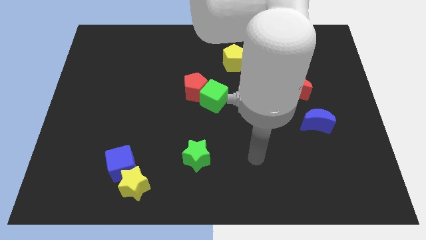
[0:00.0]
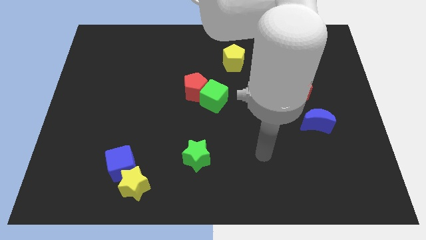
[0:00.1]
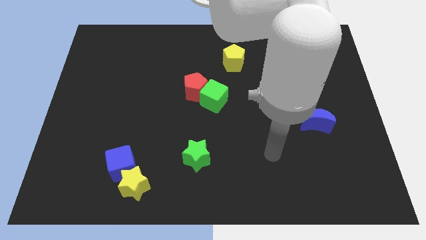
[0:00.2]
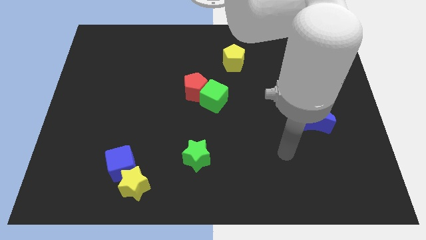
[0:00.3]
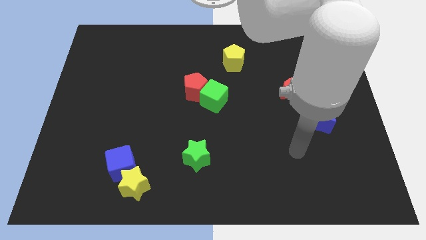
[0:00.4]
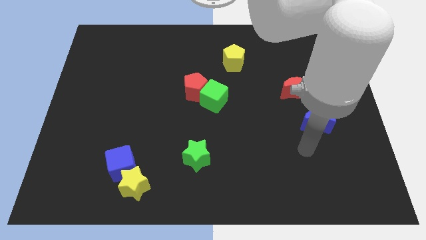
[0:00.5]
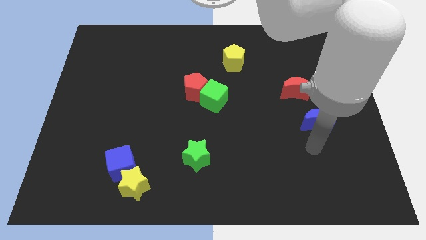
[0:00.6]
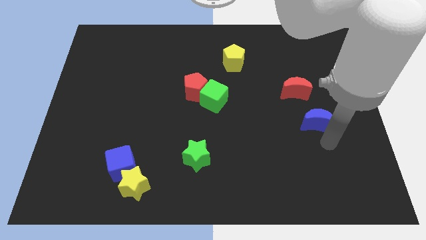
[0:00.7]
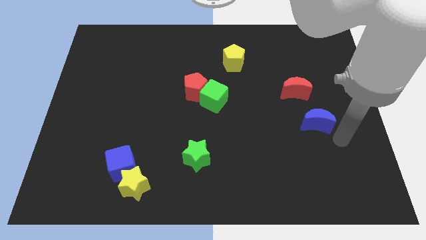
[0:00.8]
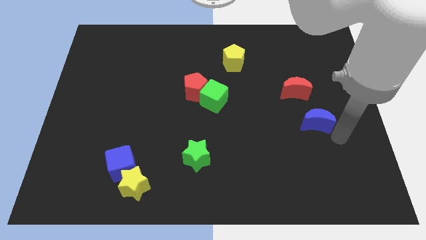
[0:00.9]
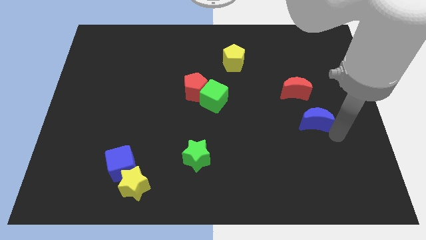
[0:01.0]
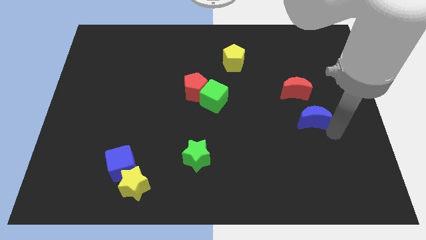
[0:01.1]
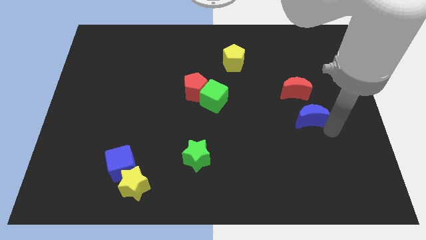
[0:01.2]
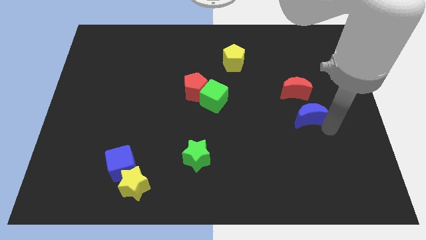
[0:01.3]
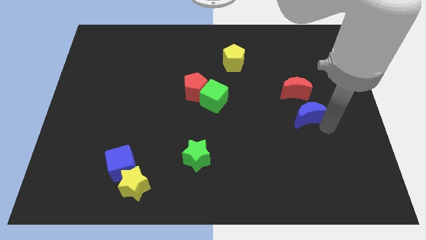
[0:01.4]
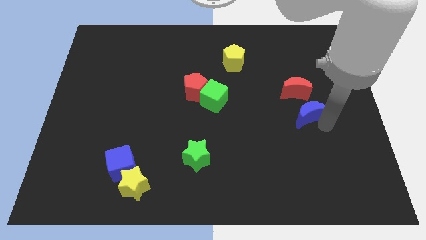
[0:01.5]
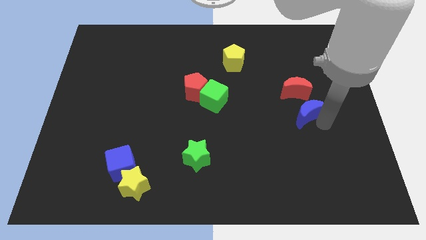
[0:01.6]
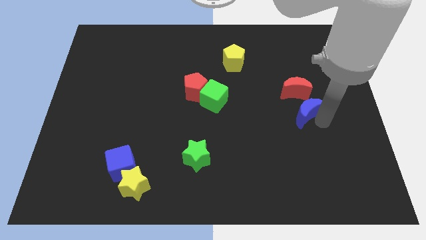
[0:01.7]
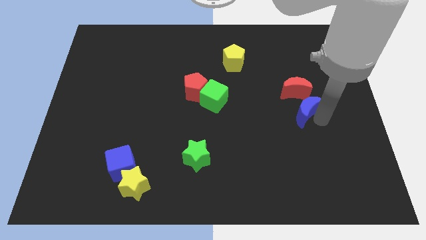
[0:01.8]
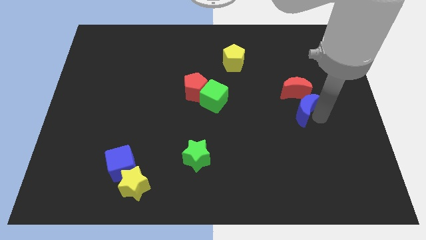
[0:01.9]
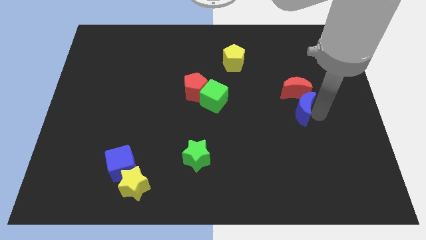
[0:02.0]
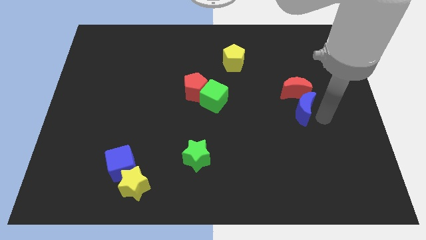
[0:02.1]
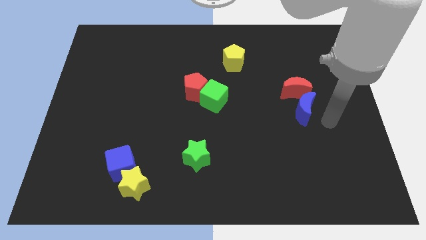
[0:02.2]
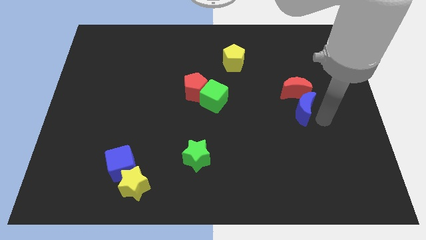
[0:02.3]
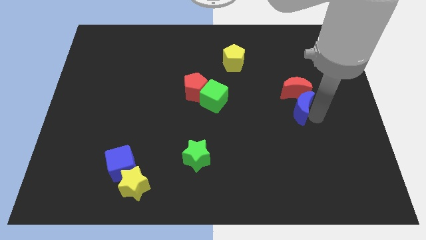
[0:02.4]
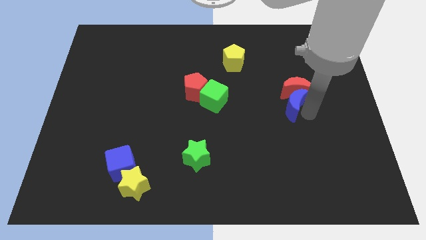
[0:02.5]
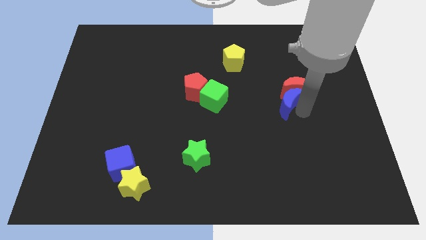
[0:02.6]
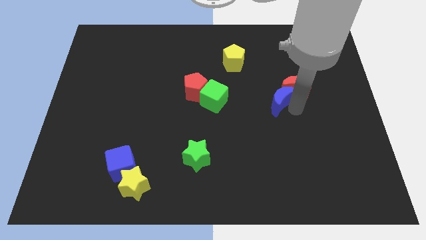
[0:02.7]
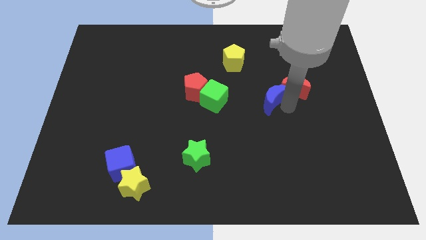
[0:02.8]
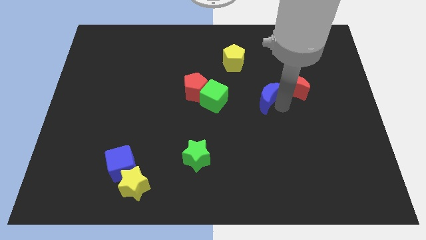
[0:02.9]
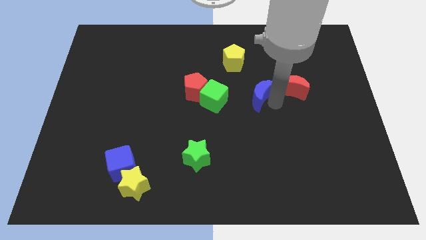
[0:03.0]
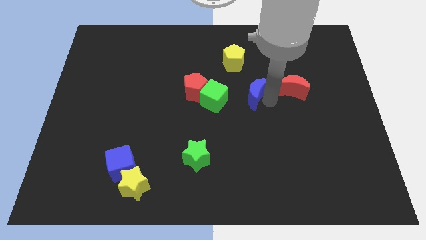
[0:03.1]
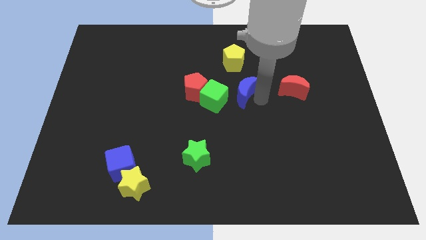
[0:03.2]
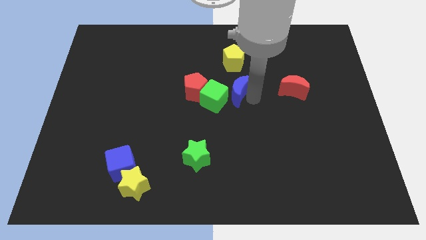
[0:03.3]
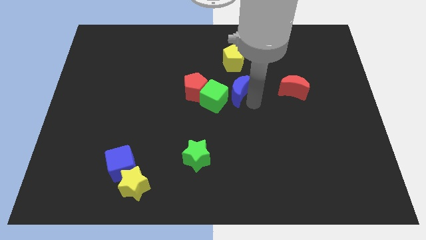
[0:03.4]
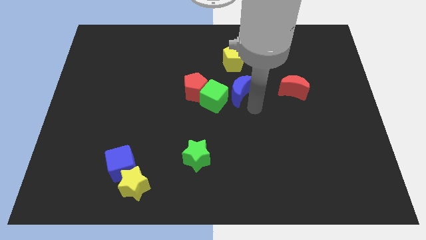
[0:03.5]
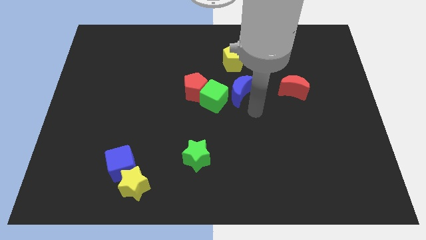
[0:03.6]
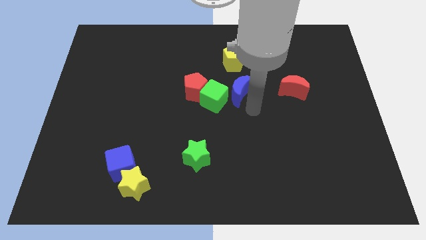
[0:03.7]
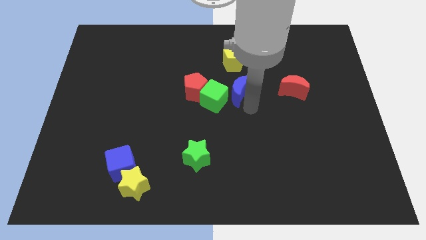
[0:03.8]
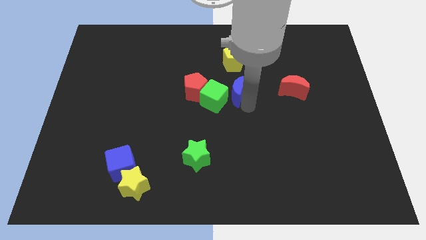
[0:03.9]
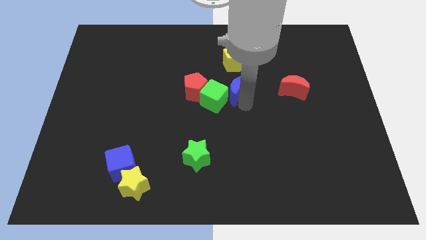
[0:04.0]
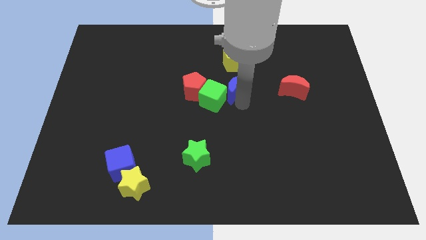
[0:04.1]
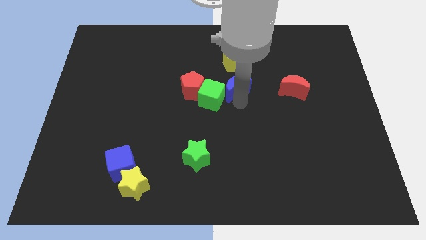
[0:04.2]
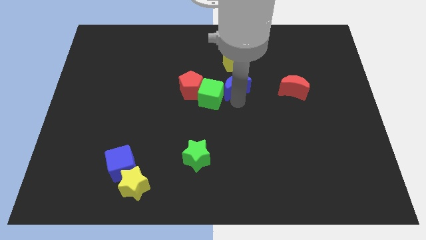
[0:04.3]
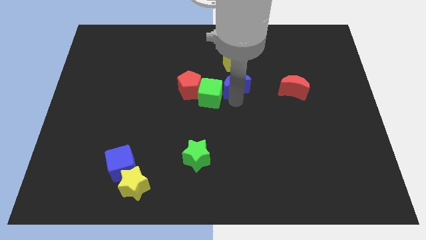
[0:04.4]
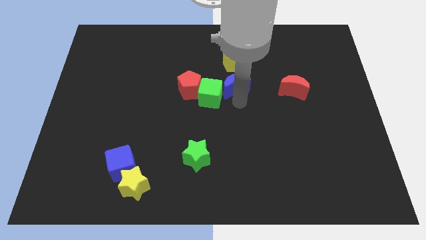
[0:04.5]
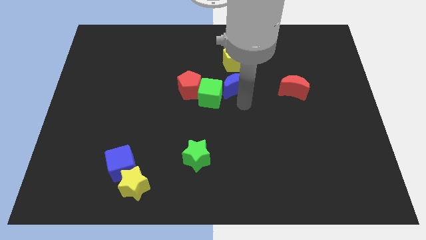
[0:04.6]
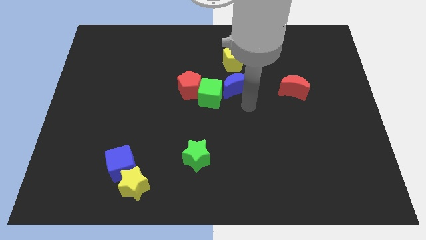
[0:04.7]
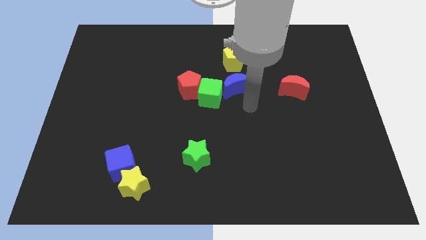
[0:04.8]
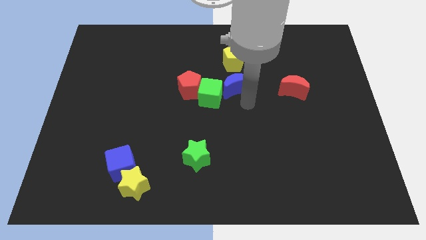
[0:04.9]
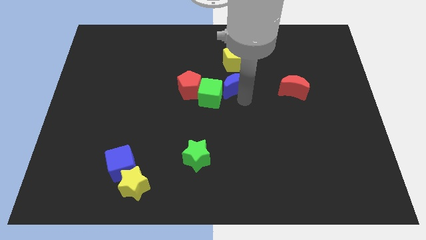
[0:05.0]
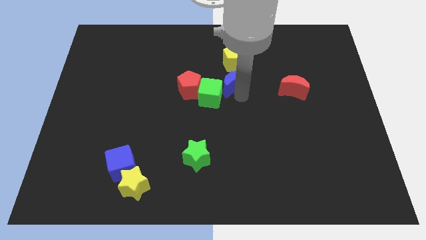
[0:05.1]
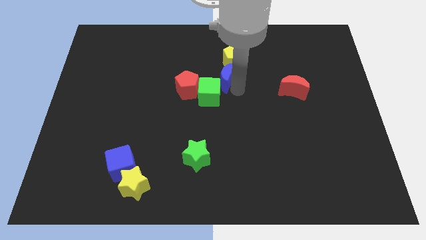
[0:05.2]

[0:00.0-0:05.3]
put the blue moon to the top side of the green cube

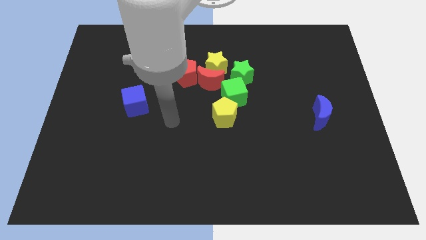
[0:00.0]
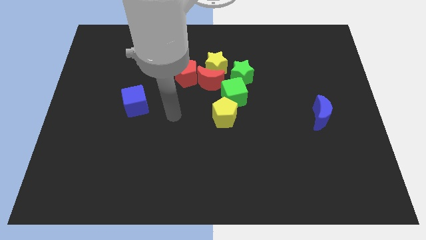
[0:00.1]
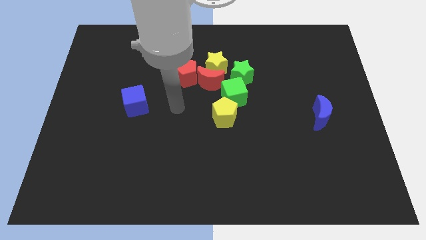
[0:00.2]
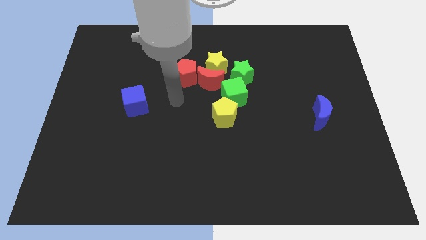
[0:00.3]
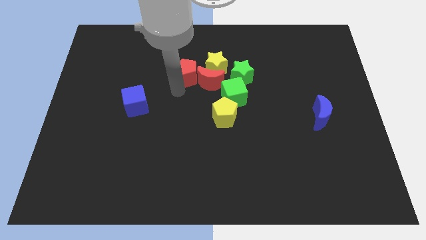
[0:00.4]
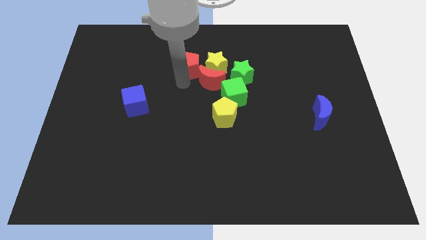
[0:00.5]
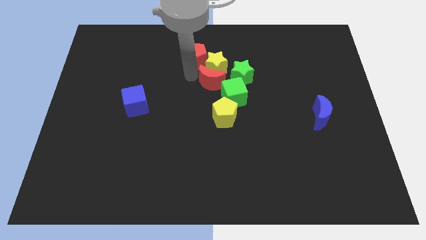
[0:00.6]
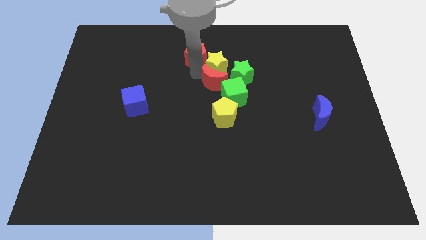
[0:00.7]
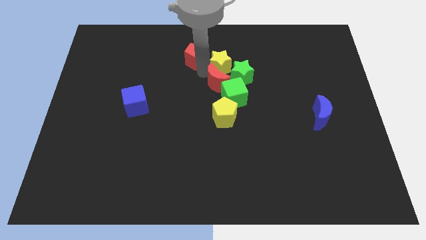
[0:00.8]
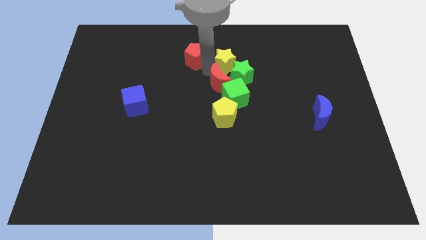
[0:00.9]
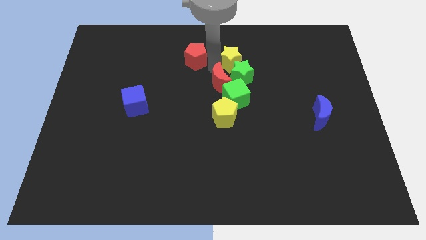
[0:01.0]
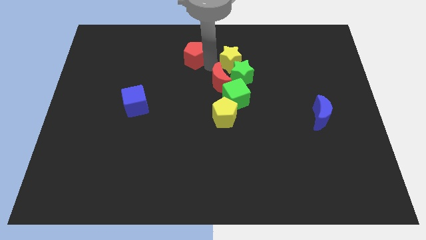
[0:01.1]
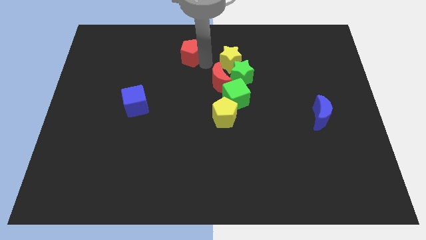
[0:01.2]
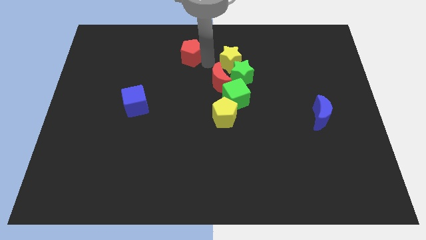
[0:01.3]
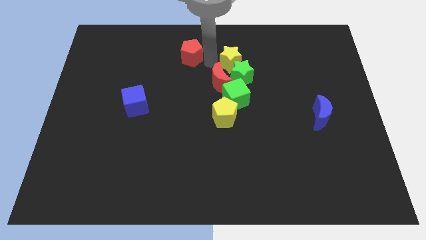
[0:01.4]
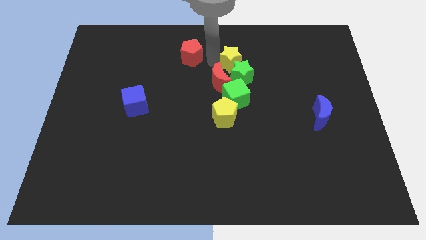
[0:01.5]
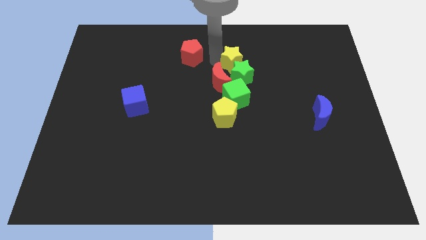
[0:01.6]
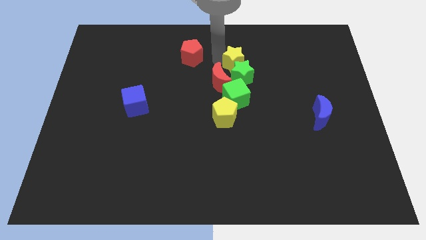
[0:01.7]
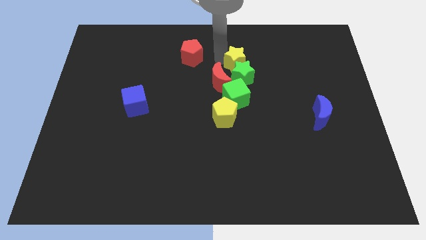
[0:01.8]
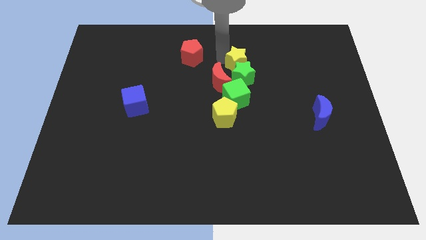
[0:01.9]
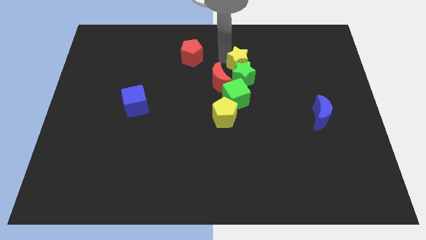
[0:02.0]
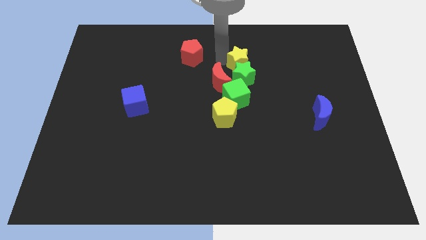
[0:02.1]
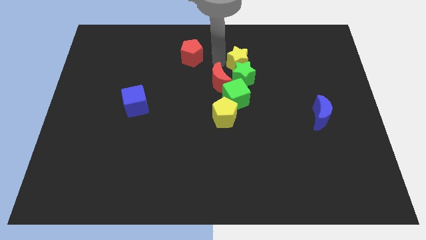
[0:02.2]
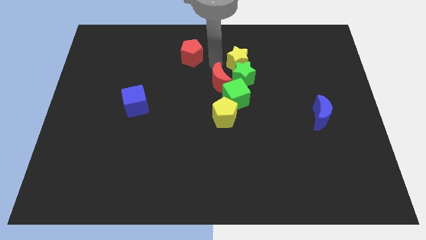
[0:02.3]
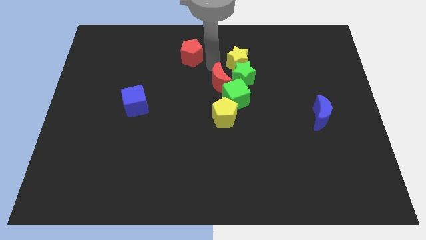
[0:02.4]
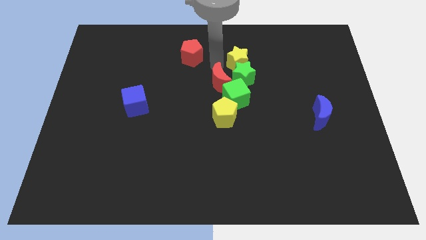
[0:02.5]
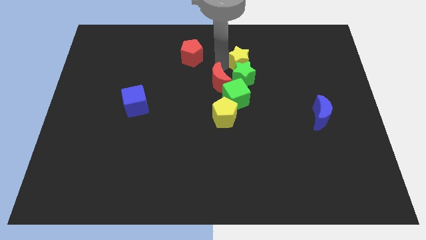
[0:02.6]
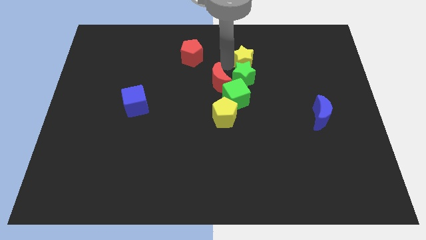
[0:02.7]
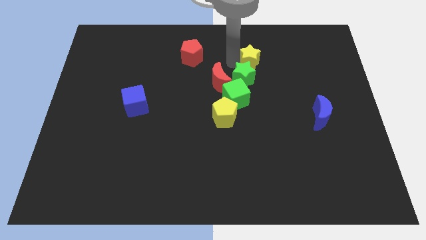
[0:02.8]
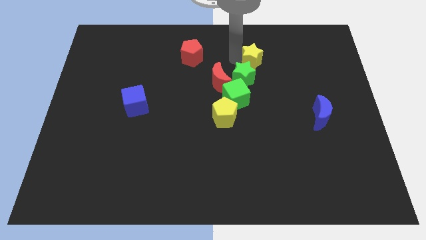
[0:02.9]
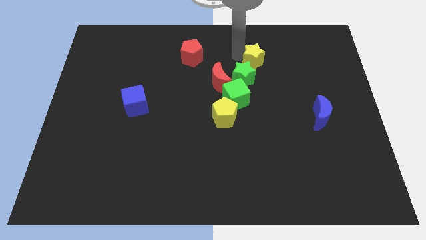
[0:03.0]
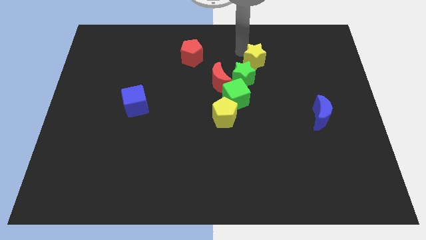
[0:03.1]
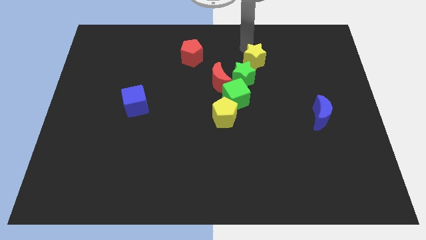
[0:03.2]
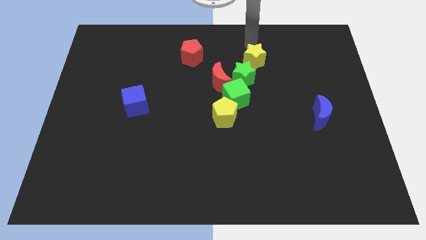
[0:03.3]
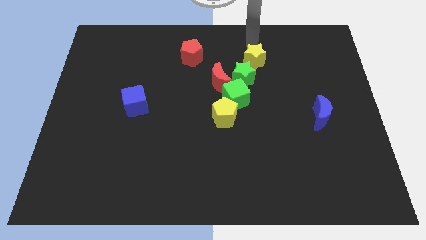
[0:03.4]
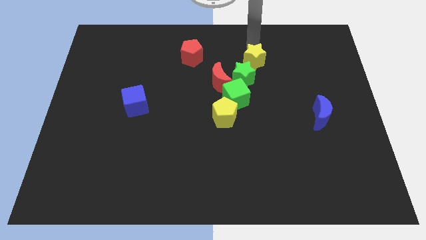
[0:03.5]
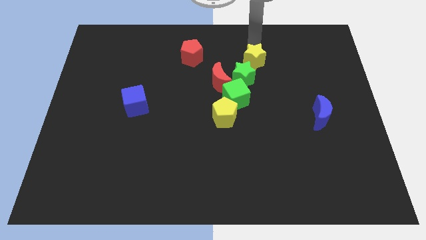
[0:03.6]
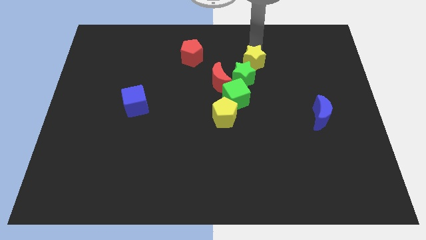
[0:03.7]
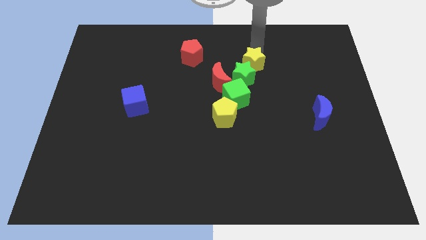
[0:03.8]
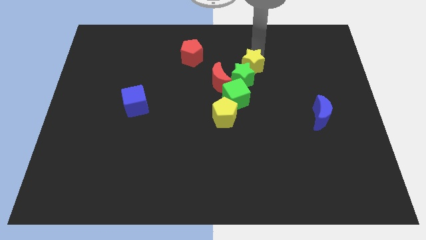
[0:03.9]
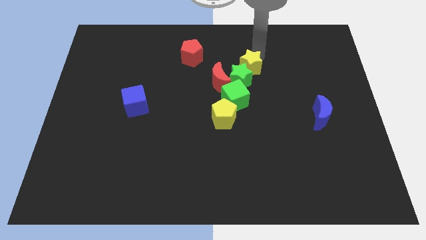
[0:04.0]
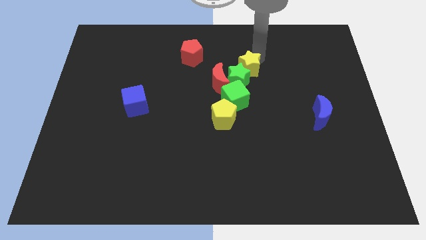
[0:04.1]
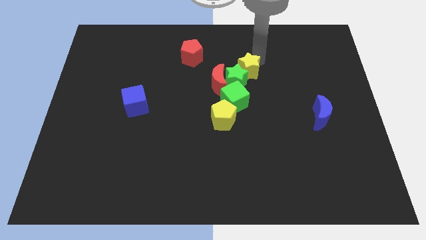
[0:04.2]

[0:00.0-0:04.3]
put the yellow star diagonally up and to the right of the green cube
